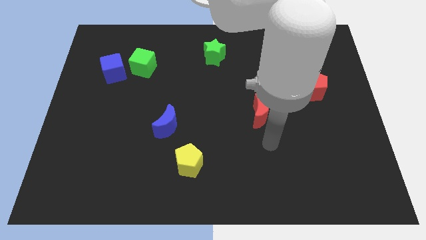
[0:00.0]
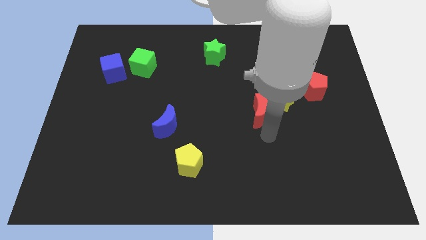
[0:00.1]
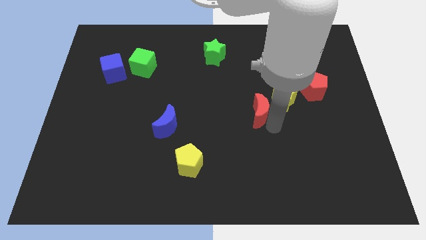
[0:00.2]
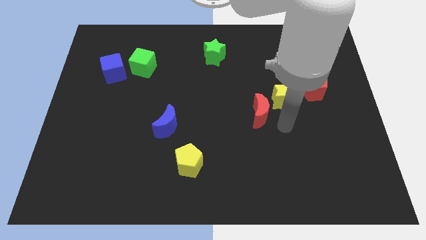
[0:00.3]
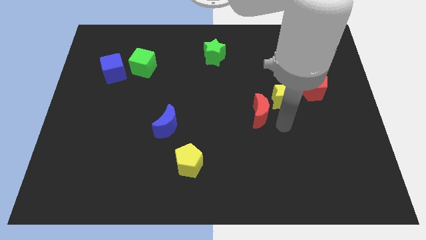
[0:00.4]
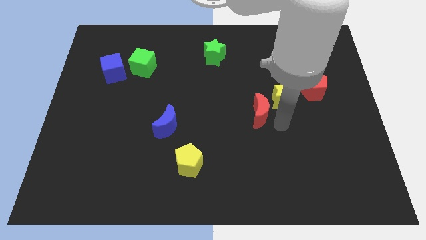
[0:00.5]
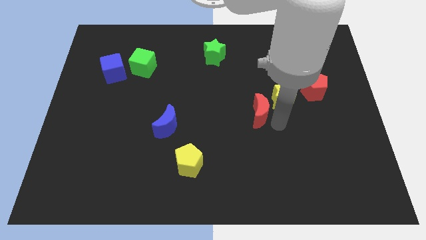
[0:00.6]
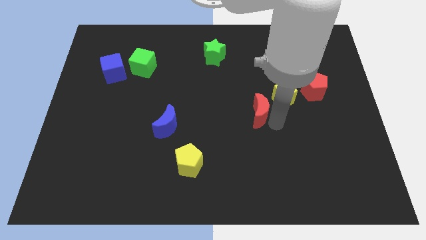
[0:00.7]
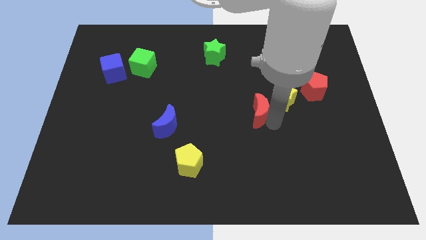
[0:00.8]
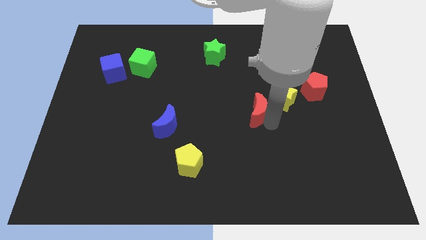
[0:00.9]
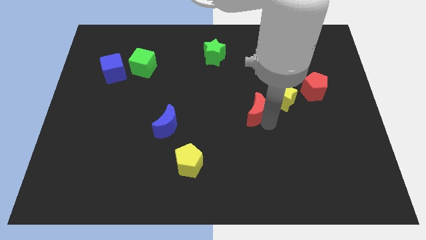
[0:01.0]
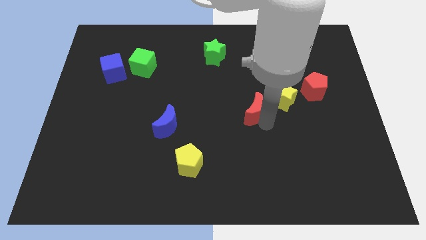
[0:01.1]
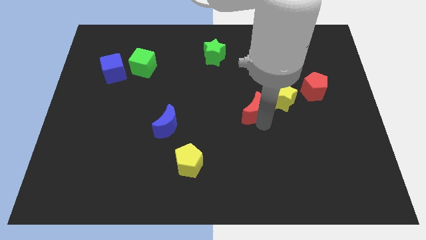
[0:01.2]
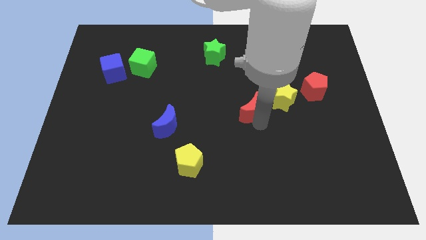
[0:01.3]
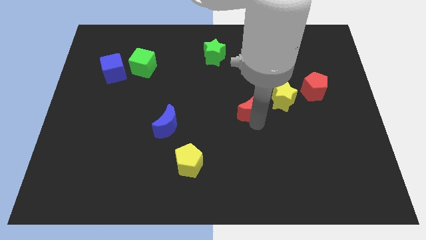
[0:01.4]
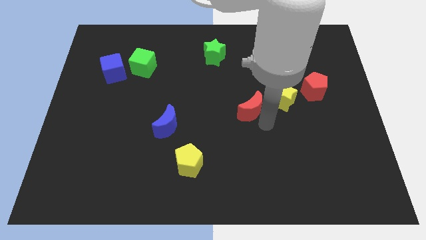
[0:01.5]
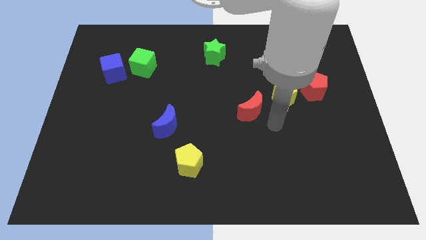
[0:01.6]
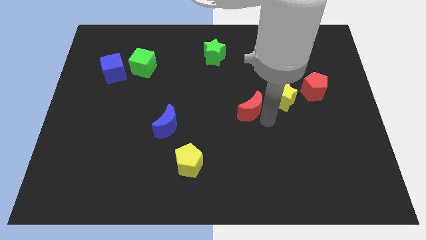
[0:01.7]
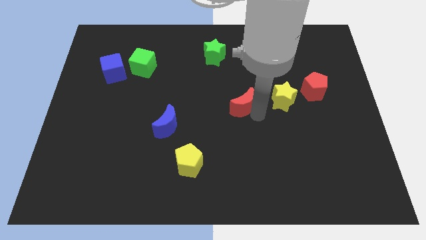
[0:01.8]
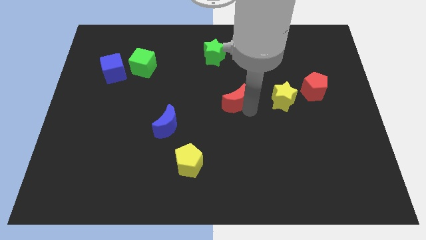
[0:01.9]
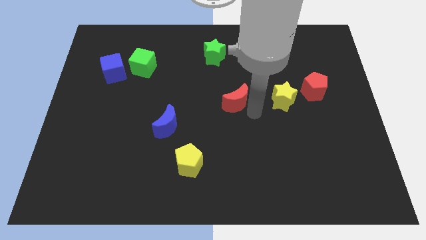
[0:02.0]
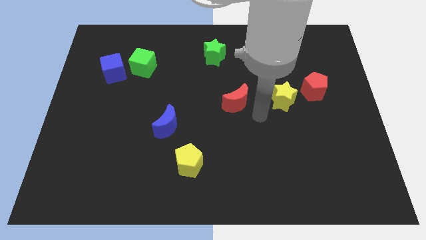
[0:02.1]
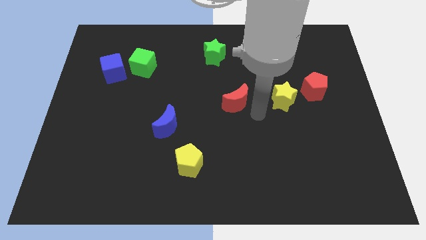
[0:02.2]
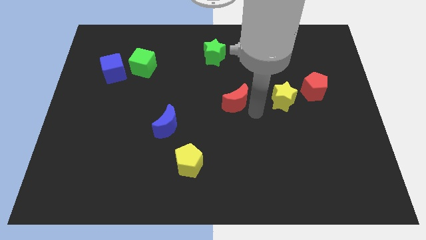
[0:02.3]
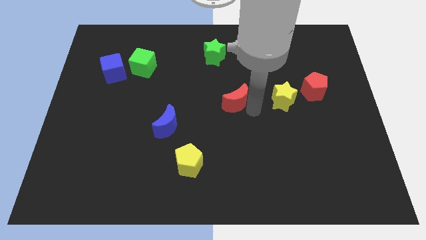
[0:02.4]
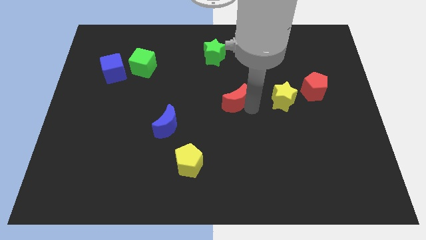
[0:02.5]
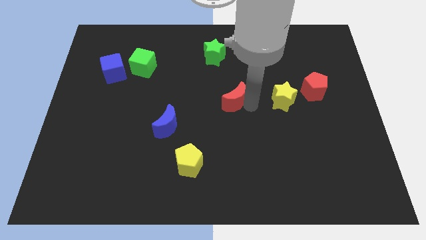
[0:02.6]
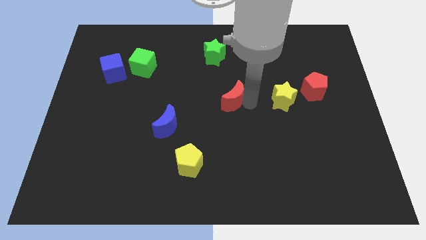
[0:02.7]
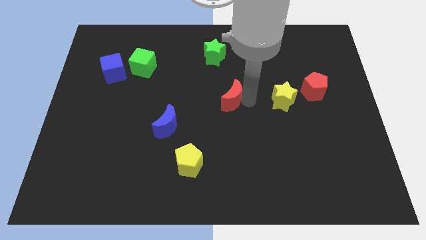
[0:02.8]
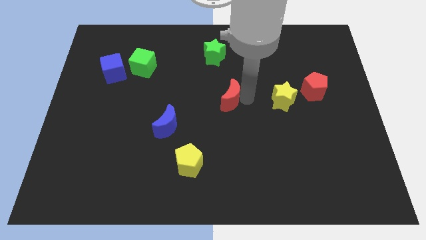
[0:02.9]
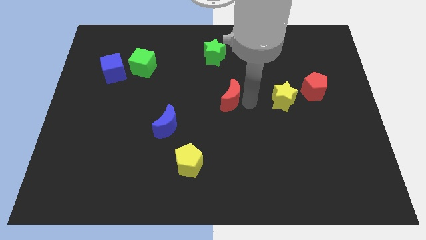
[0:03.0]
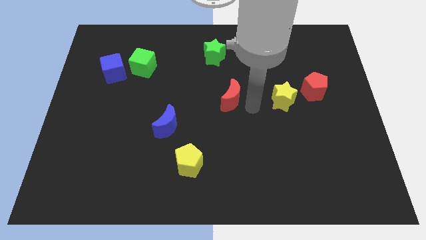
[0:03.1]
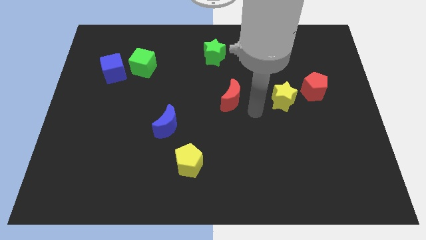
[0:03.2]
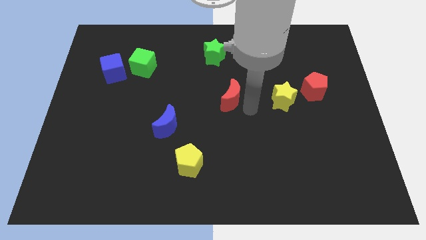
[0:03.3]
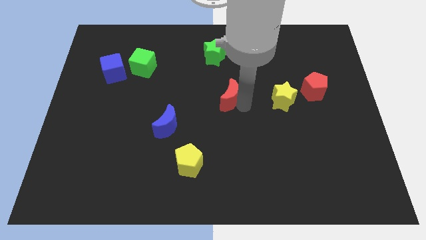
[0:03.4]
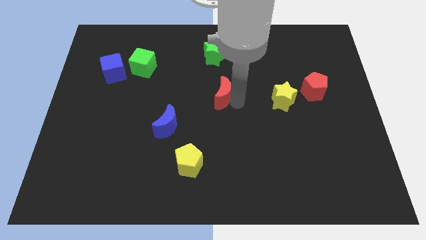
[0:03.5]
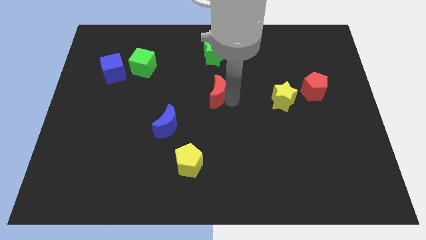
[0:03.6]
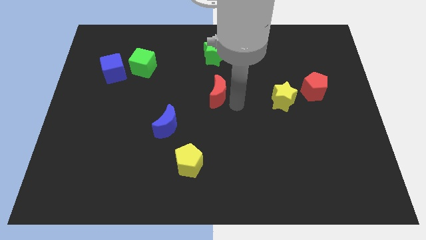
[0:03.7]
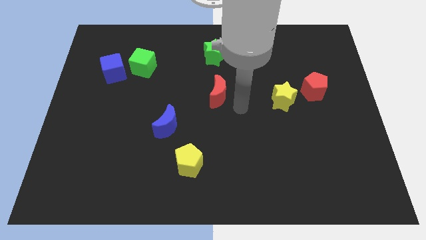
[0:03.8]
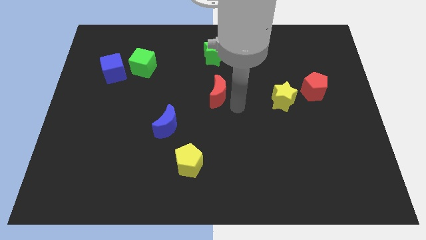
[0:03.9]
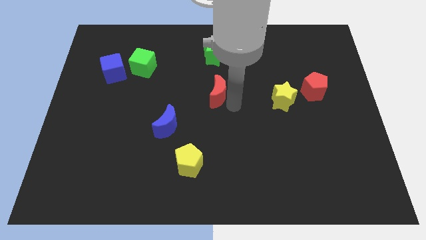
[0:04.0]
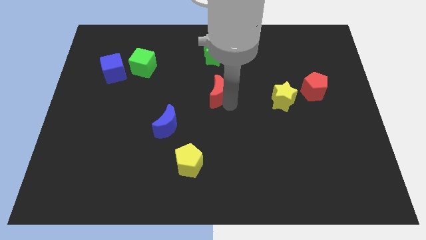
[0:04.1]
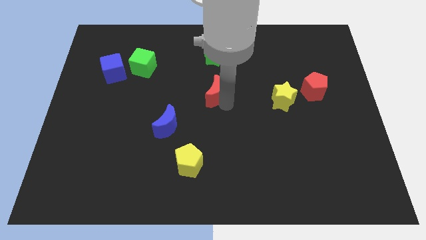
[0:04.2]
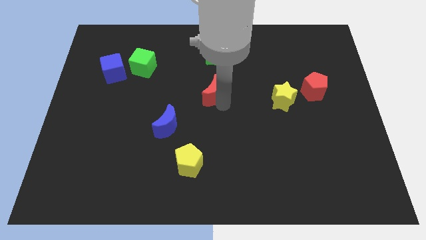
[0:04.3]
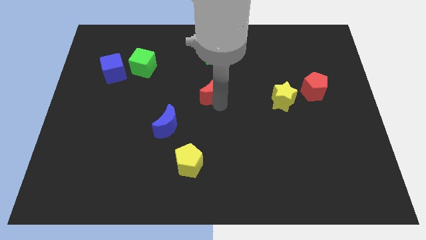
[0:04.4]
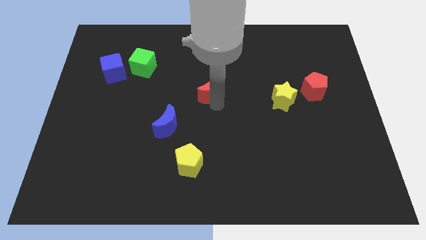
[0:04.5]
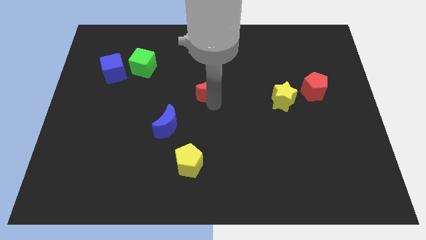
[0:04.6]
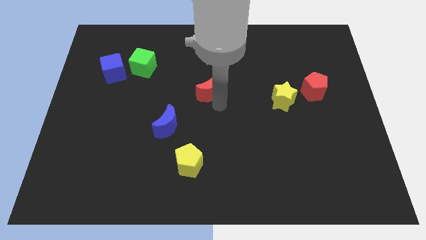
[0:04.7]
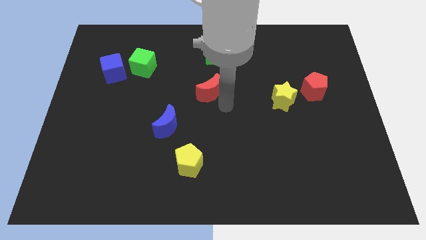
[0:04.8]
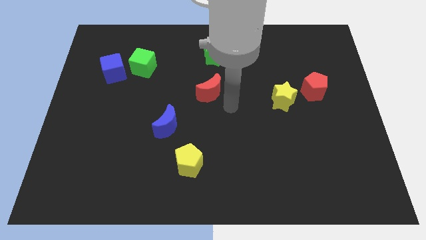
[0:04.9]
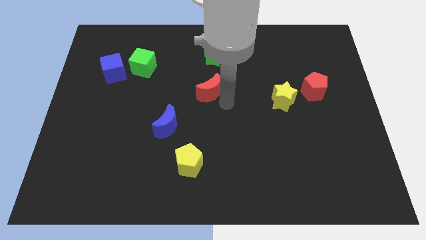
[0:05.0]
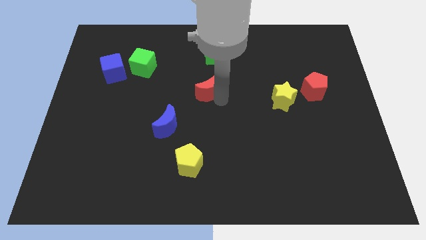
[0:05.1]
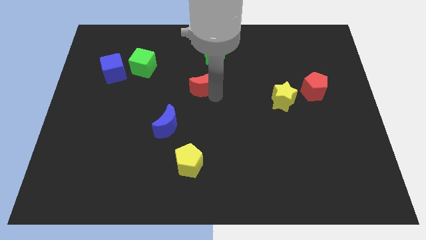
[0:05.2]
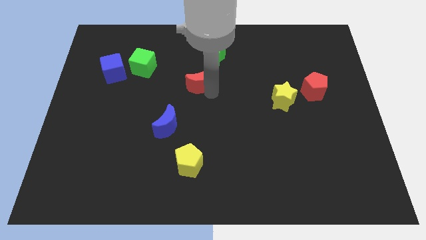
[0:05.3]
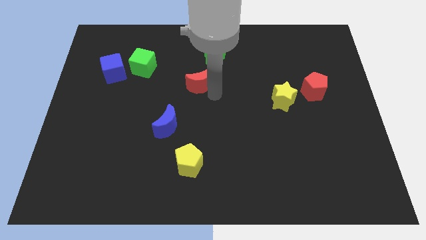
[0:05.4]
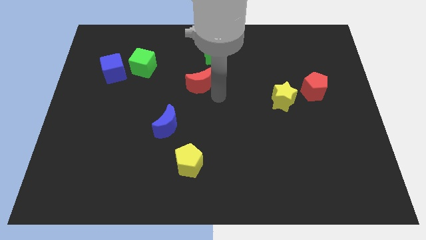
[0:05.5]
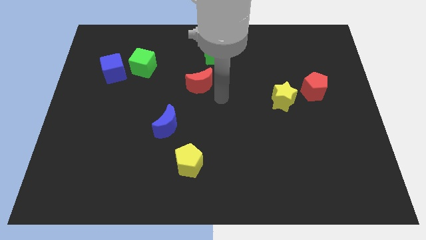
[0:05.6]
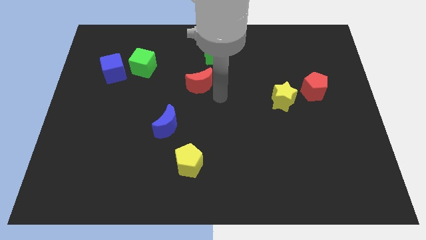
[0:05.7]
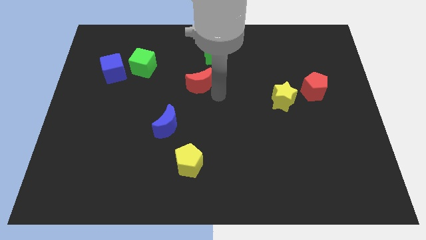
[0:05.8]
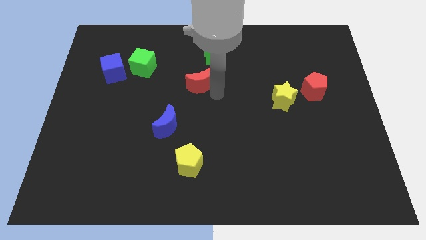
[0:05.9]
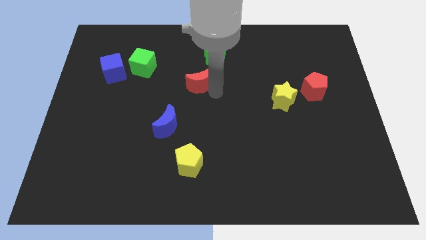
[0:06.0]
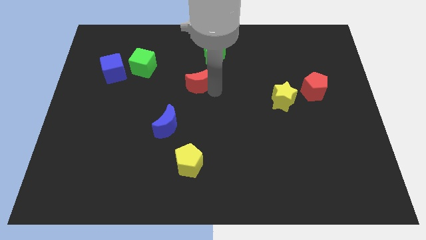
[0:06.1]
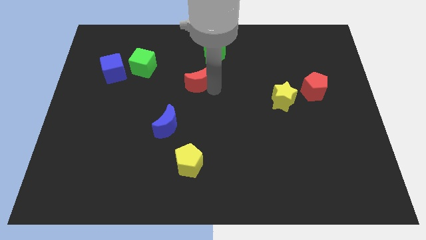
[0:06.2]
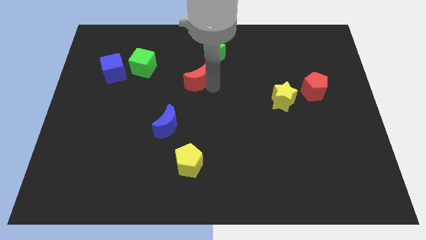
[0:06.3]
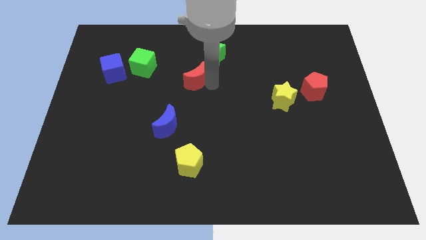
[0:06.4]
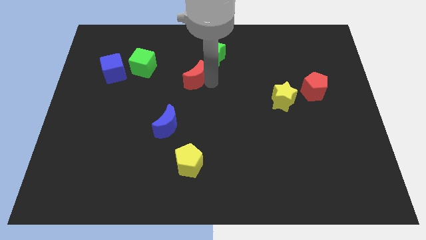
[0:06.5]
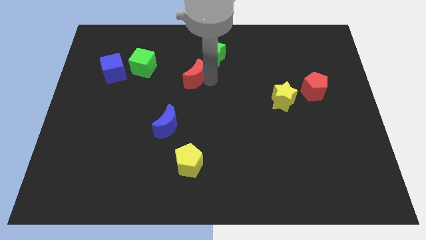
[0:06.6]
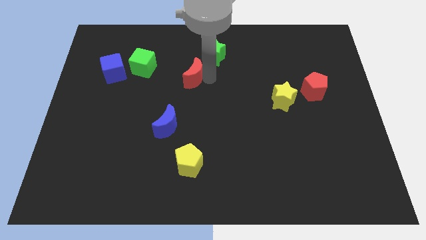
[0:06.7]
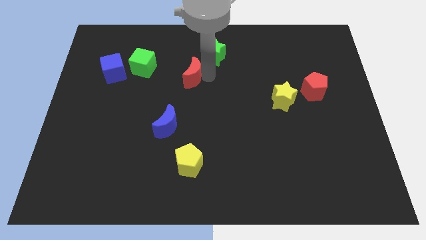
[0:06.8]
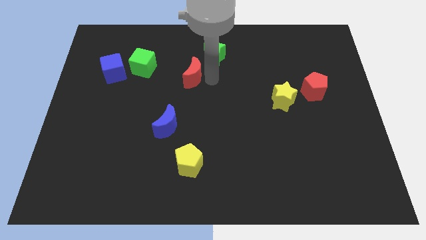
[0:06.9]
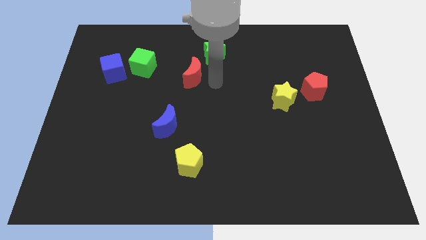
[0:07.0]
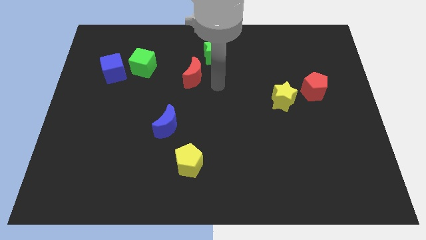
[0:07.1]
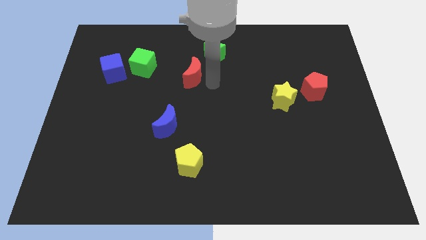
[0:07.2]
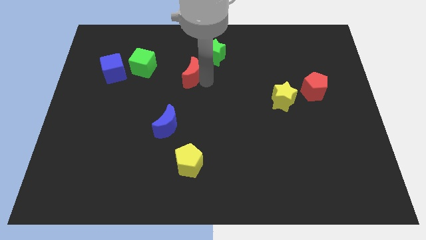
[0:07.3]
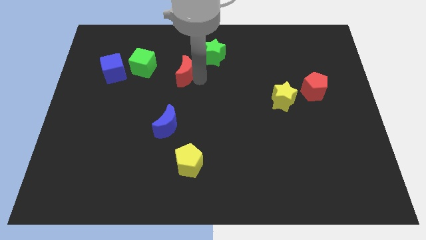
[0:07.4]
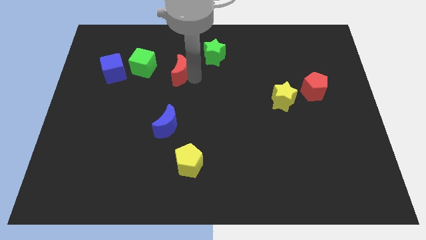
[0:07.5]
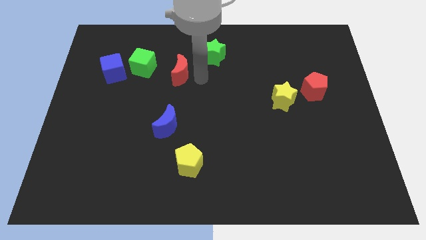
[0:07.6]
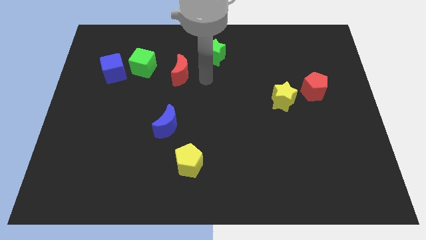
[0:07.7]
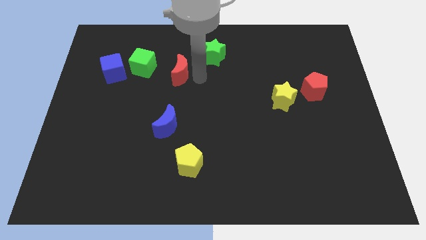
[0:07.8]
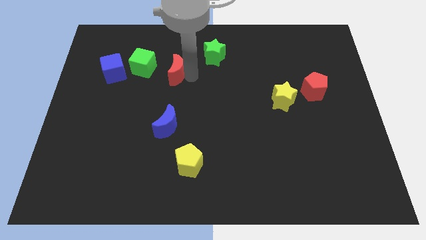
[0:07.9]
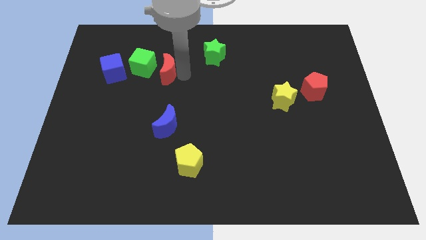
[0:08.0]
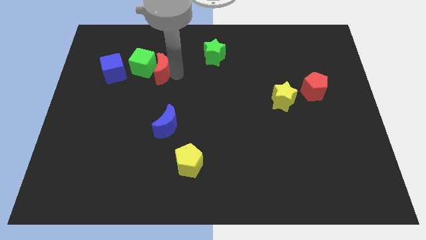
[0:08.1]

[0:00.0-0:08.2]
move the red moon towards the green cube
